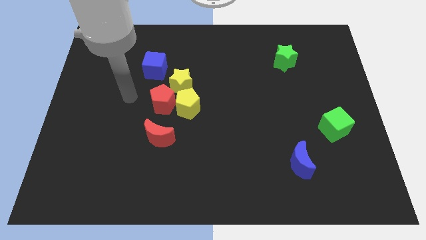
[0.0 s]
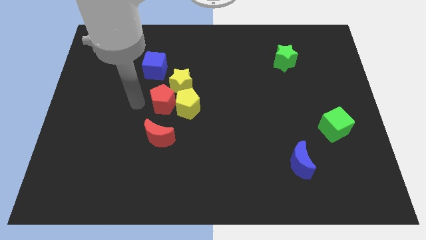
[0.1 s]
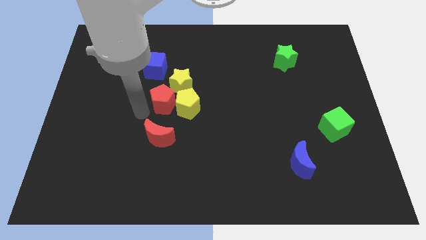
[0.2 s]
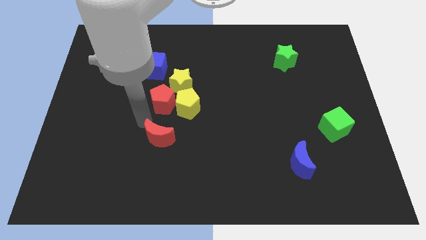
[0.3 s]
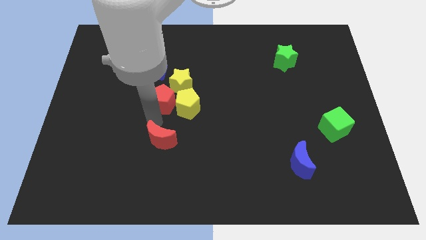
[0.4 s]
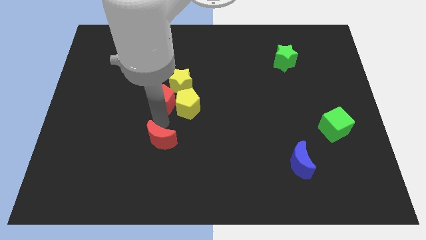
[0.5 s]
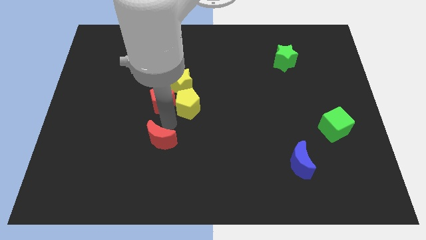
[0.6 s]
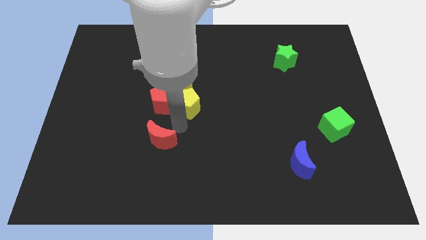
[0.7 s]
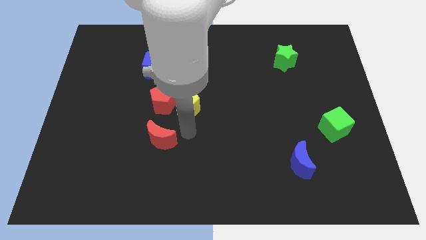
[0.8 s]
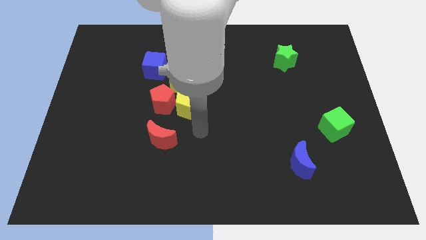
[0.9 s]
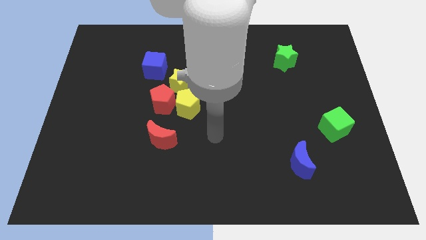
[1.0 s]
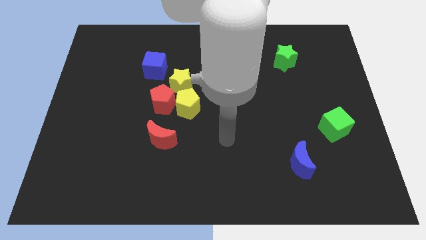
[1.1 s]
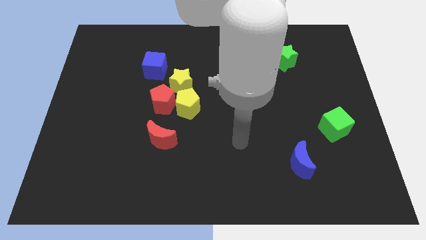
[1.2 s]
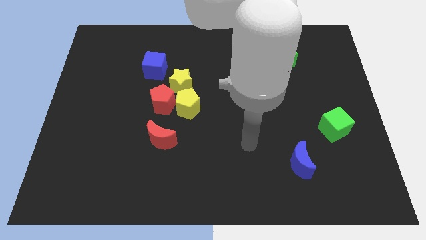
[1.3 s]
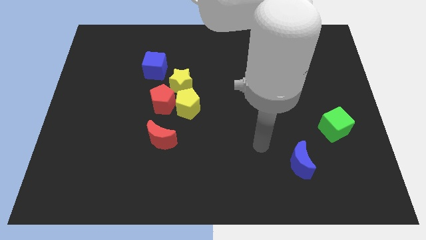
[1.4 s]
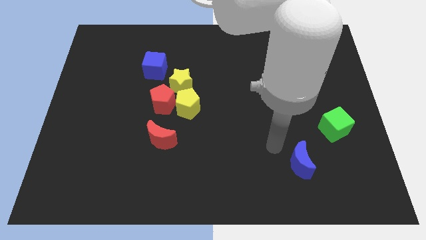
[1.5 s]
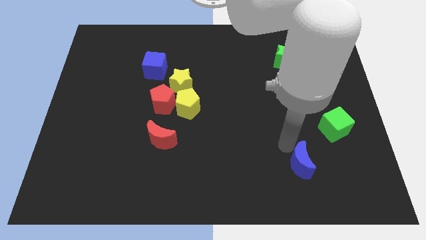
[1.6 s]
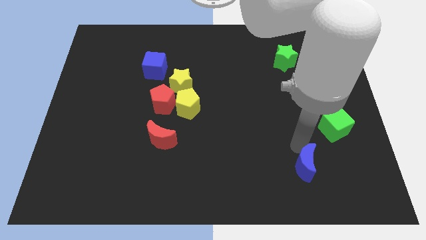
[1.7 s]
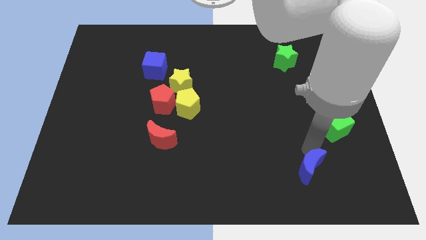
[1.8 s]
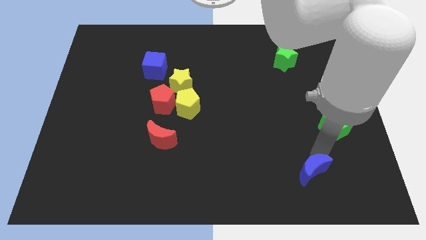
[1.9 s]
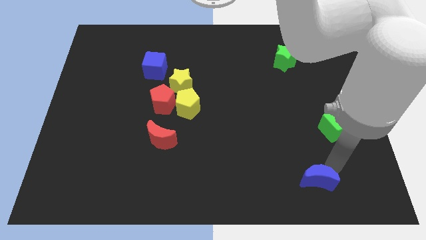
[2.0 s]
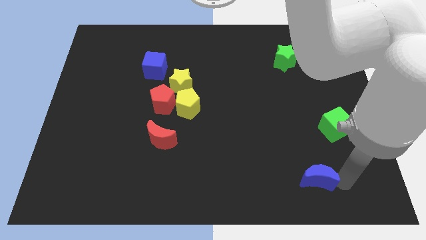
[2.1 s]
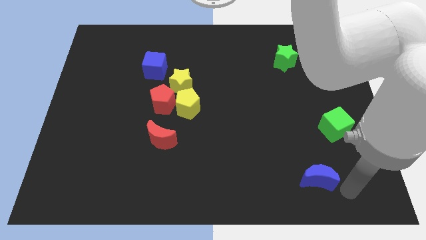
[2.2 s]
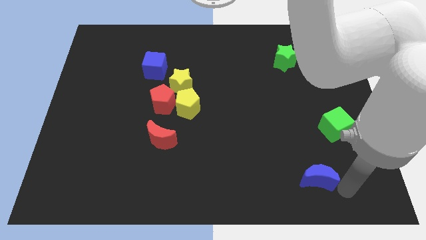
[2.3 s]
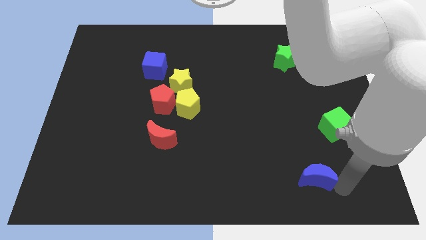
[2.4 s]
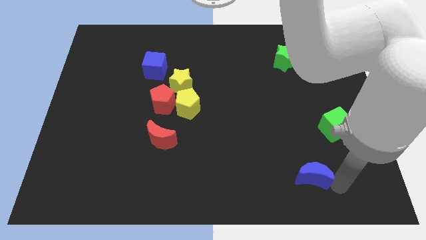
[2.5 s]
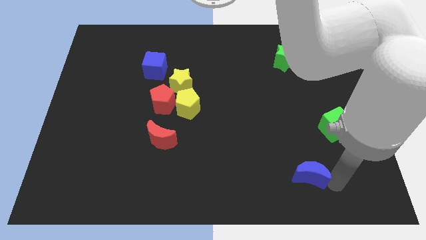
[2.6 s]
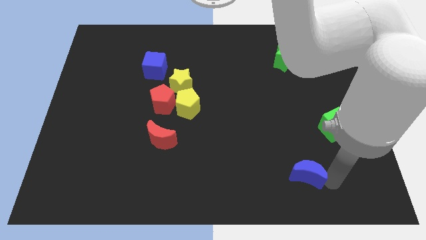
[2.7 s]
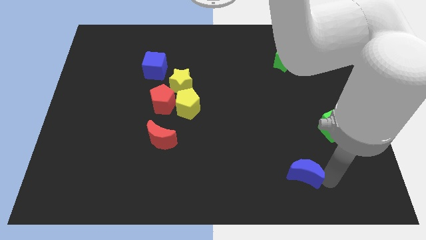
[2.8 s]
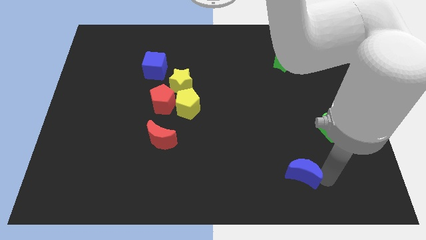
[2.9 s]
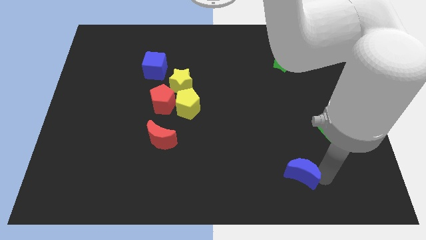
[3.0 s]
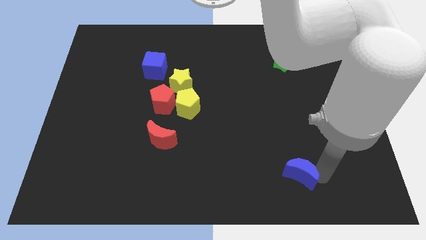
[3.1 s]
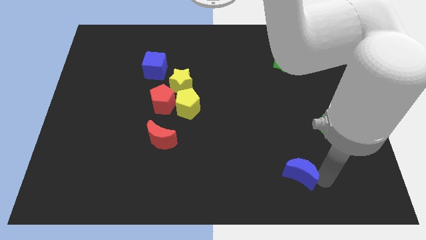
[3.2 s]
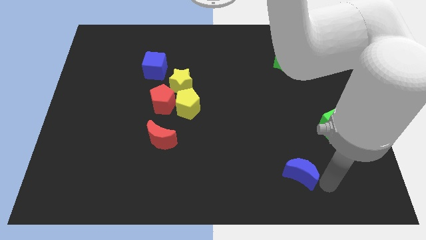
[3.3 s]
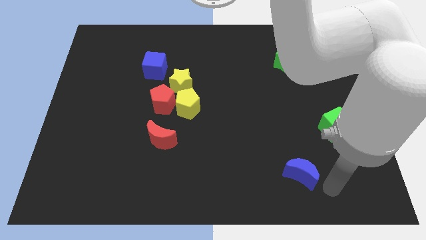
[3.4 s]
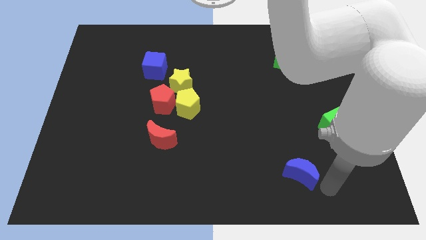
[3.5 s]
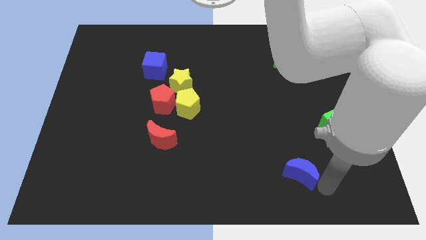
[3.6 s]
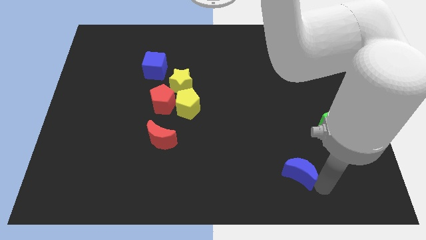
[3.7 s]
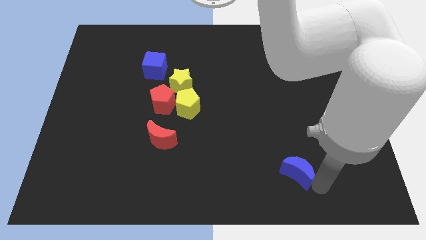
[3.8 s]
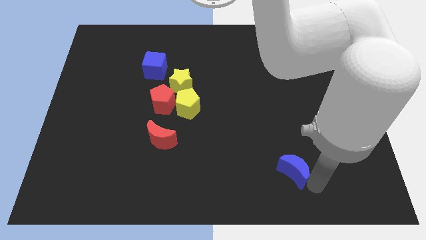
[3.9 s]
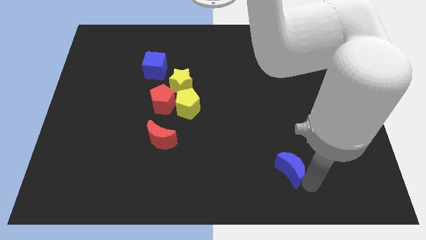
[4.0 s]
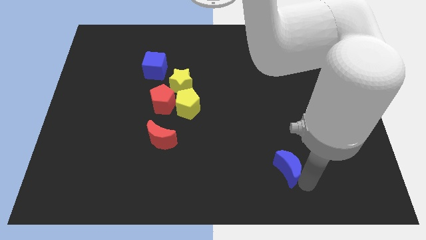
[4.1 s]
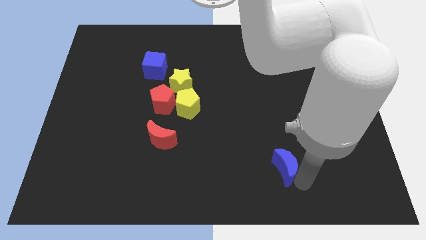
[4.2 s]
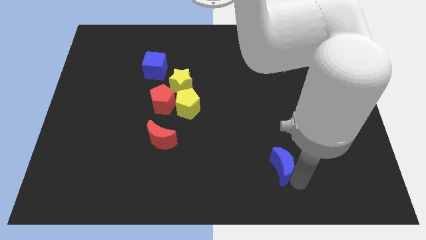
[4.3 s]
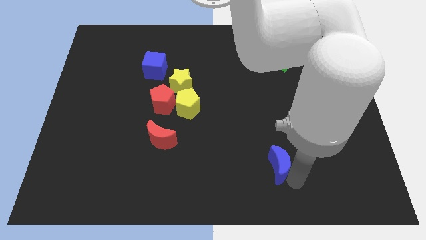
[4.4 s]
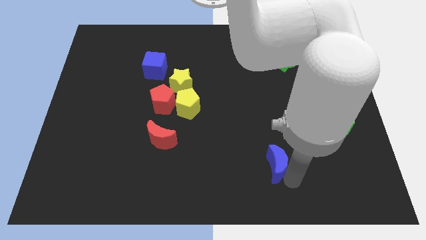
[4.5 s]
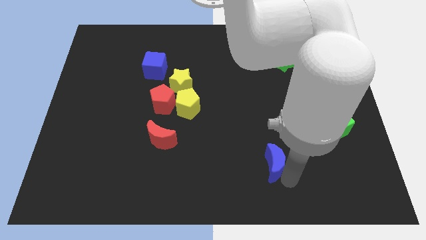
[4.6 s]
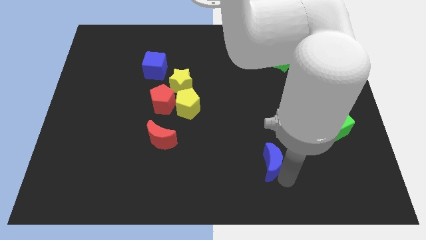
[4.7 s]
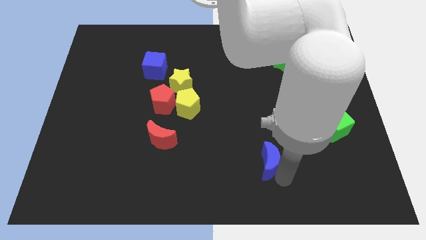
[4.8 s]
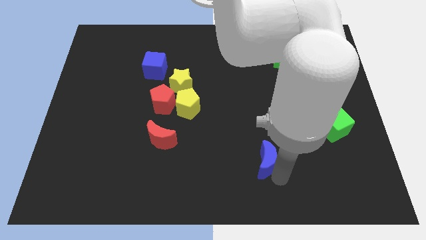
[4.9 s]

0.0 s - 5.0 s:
slide the blue moon left slightly

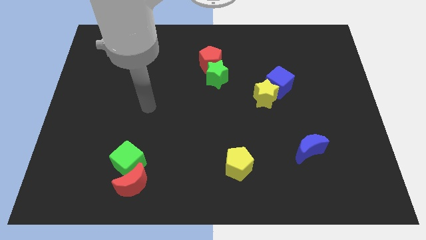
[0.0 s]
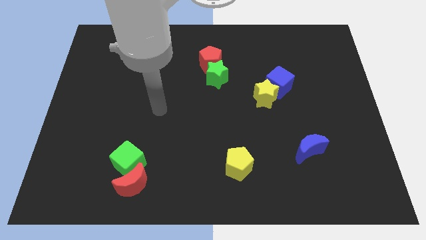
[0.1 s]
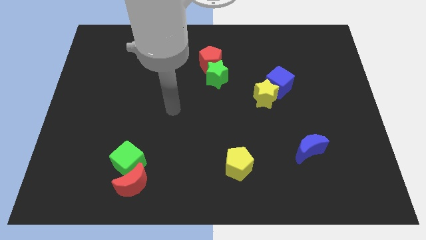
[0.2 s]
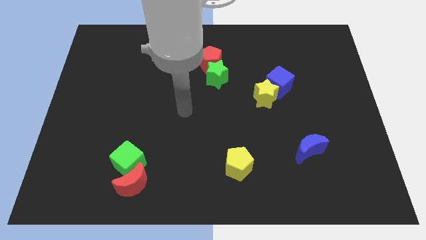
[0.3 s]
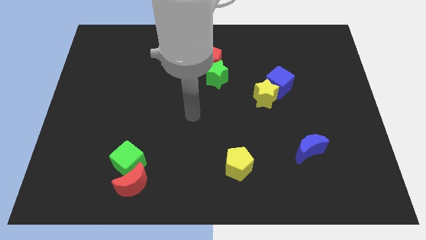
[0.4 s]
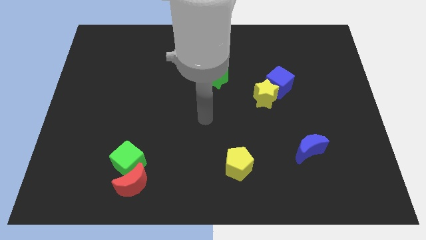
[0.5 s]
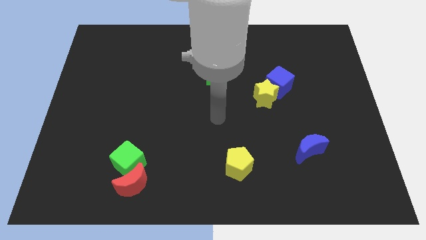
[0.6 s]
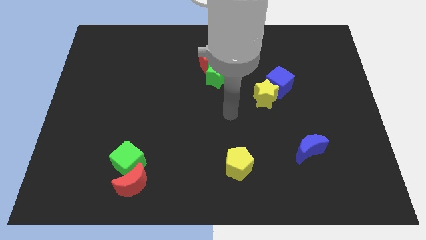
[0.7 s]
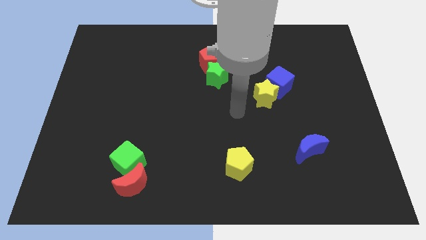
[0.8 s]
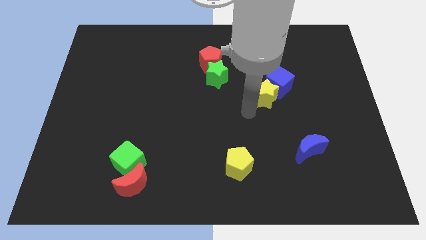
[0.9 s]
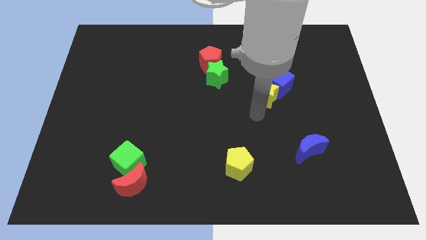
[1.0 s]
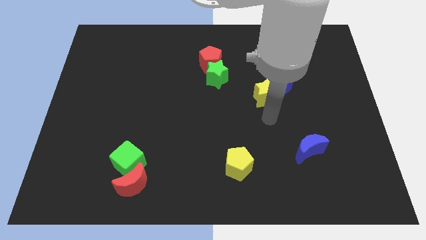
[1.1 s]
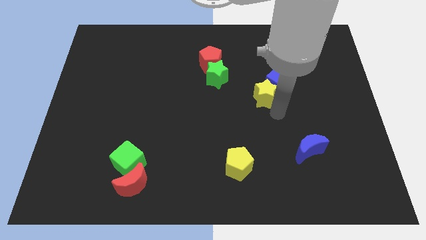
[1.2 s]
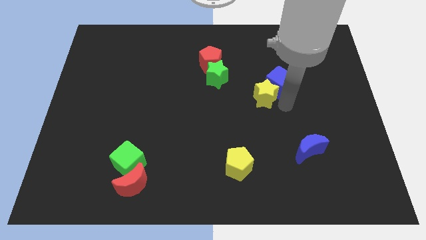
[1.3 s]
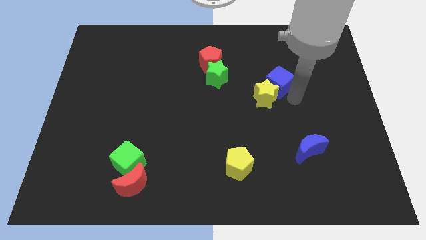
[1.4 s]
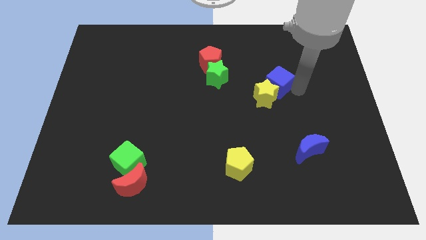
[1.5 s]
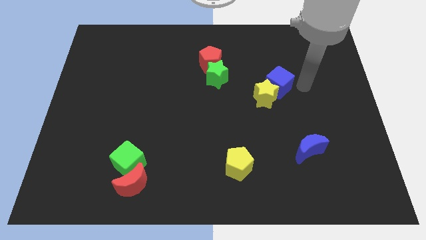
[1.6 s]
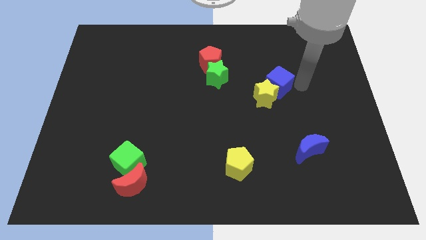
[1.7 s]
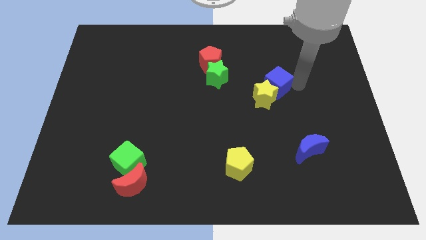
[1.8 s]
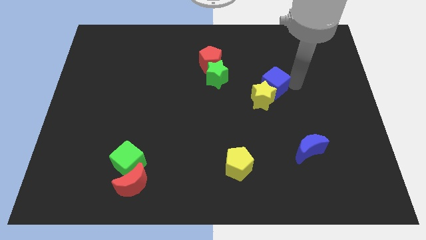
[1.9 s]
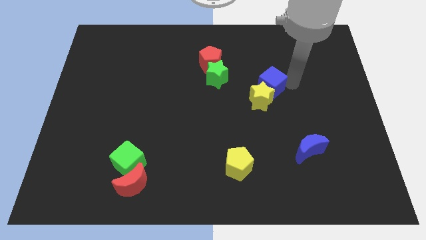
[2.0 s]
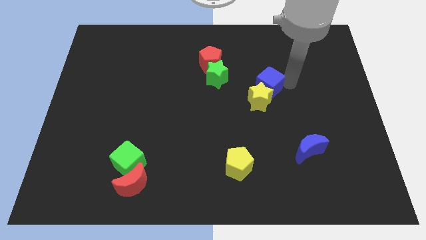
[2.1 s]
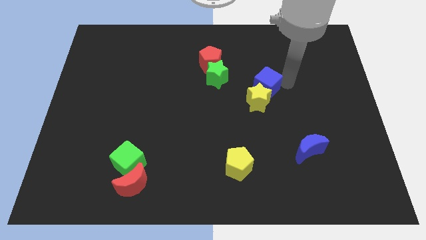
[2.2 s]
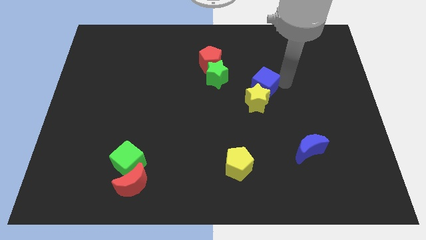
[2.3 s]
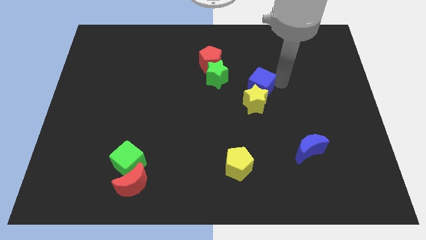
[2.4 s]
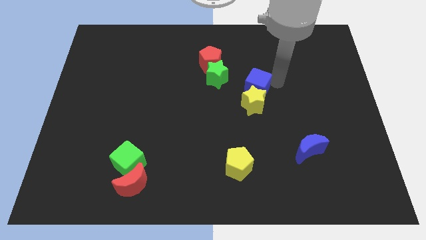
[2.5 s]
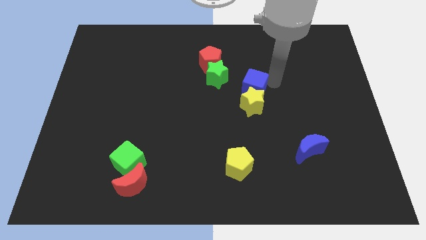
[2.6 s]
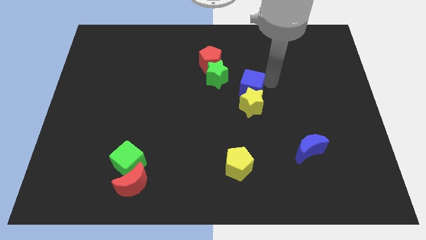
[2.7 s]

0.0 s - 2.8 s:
slightly move the blue cube to the left

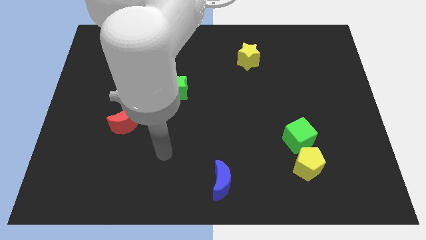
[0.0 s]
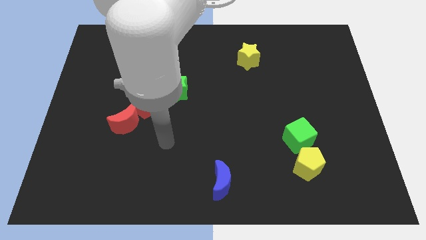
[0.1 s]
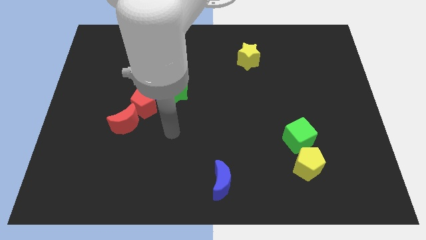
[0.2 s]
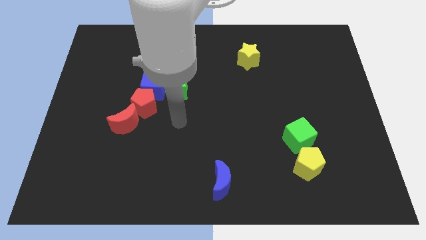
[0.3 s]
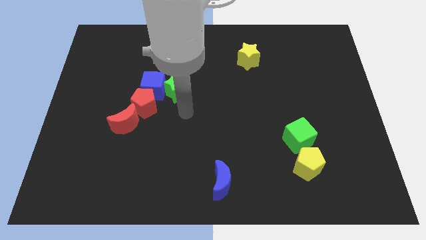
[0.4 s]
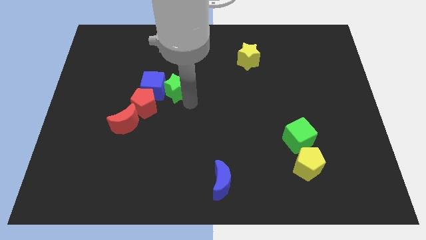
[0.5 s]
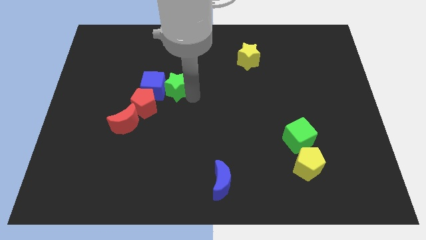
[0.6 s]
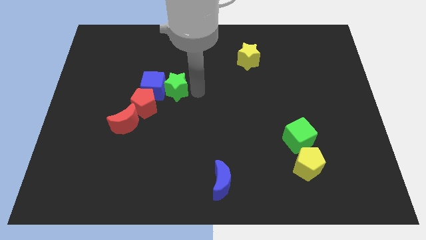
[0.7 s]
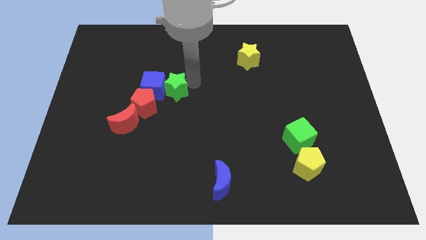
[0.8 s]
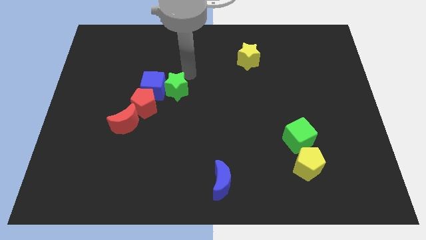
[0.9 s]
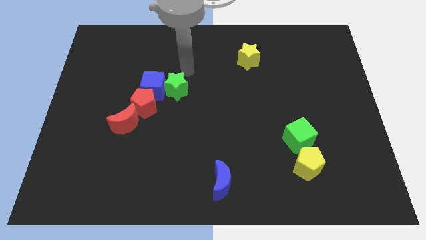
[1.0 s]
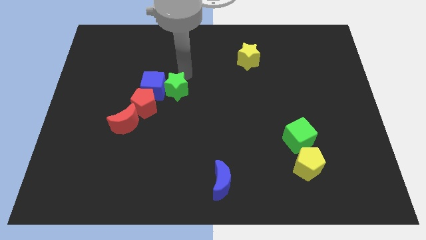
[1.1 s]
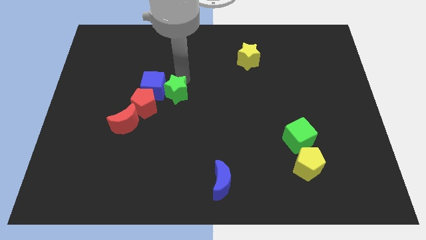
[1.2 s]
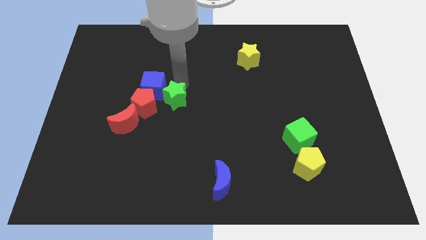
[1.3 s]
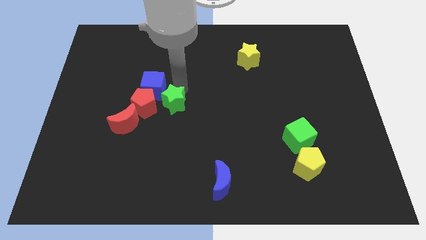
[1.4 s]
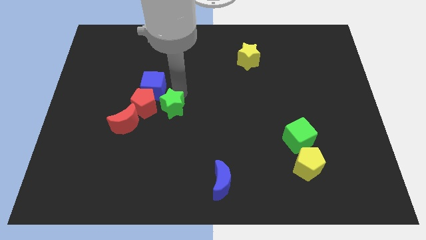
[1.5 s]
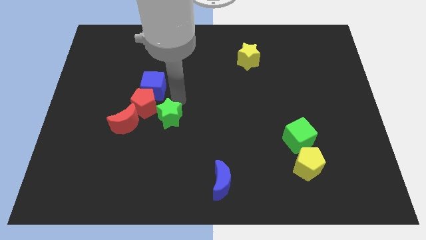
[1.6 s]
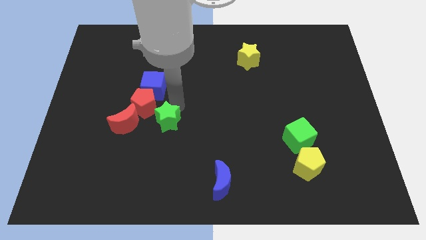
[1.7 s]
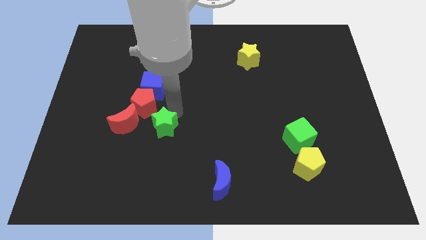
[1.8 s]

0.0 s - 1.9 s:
slightly slide the green star downwards and then left
